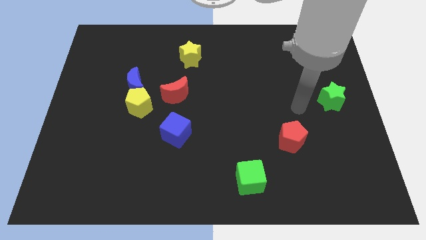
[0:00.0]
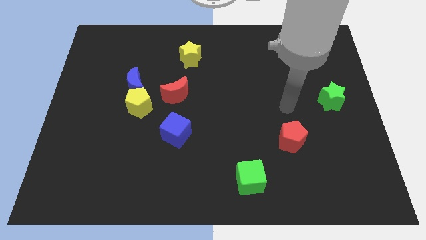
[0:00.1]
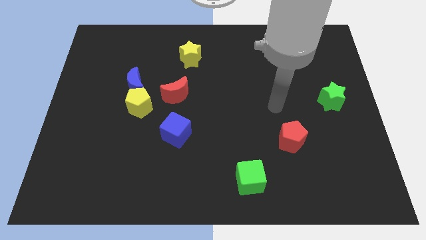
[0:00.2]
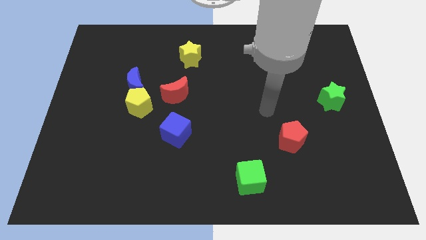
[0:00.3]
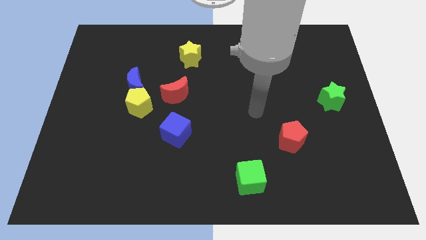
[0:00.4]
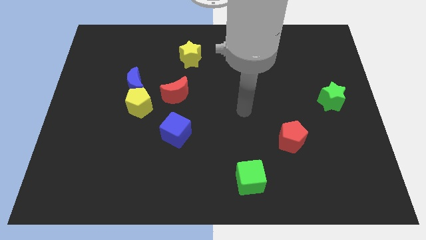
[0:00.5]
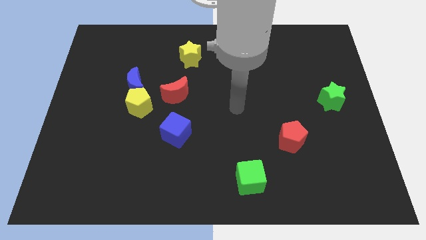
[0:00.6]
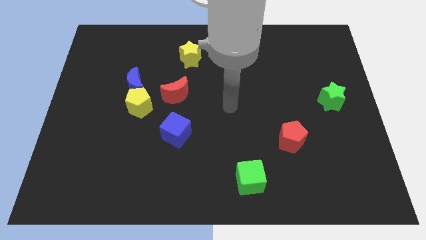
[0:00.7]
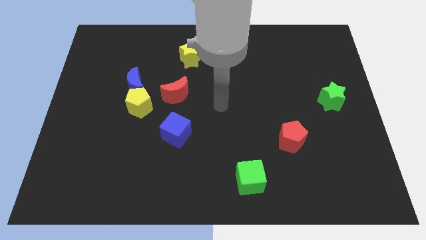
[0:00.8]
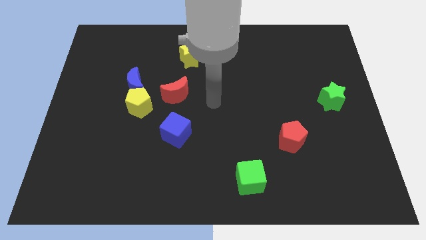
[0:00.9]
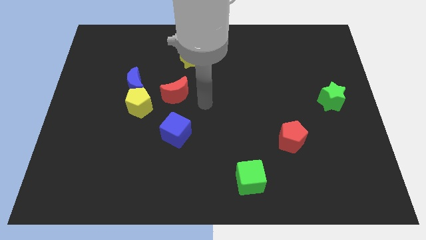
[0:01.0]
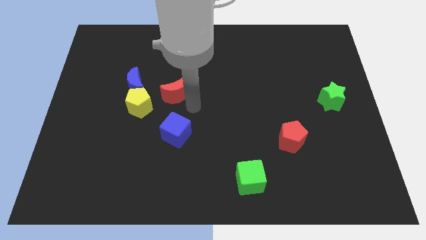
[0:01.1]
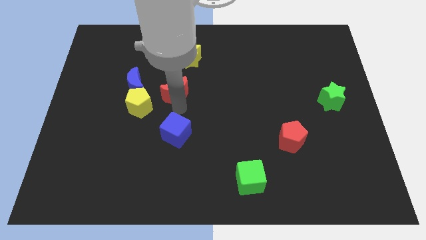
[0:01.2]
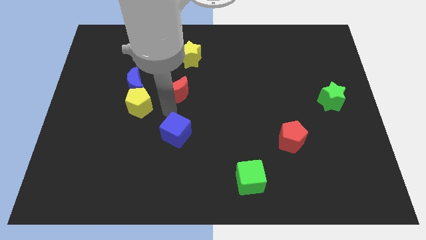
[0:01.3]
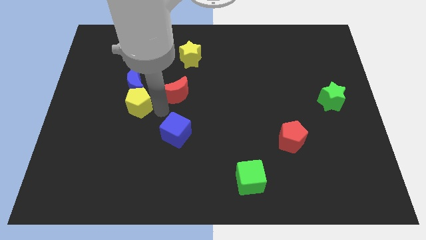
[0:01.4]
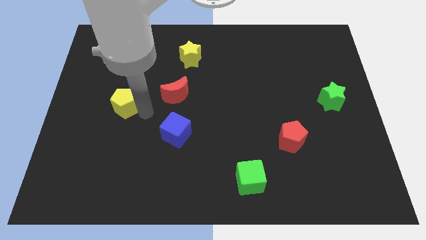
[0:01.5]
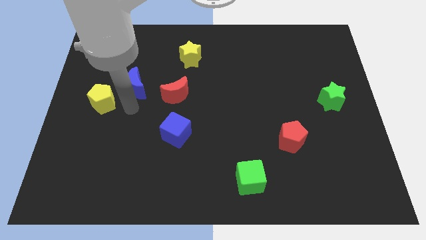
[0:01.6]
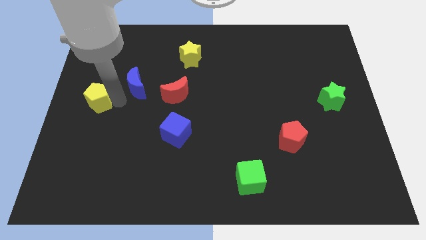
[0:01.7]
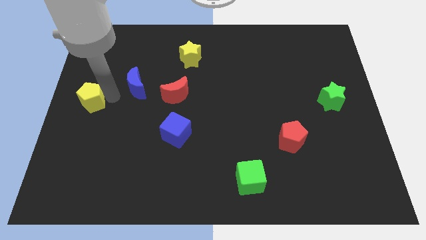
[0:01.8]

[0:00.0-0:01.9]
move the blue moon away from the yellow pentagon

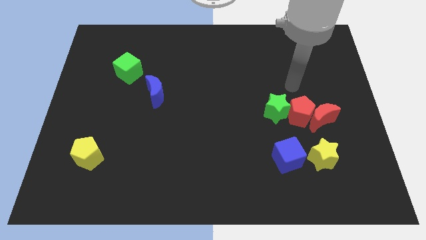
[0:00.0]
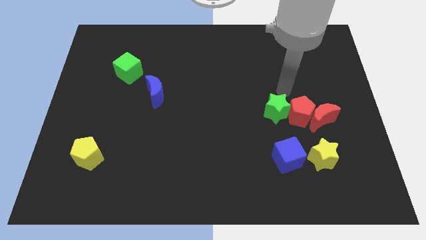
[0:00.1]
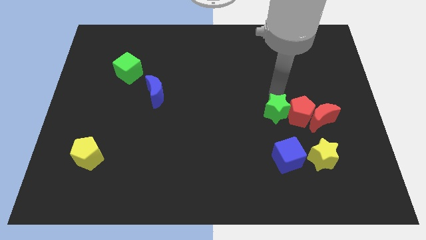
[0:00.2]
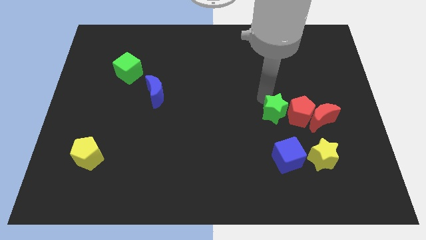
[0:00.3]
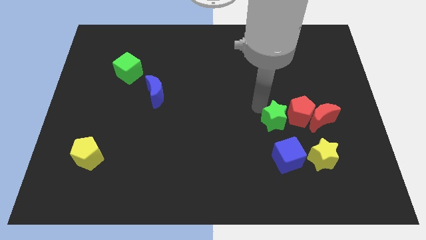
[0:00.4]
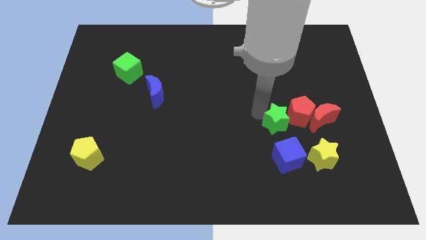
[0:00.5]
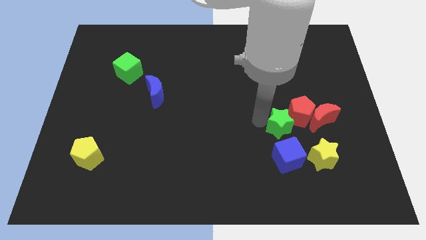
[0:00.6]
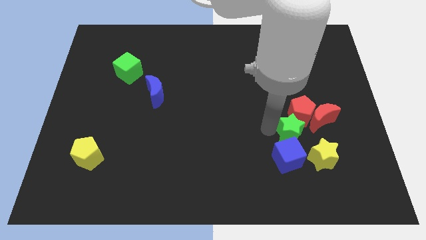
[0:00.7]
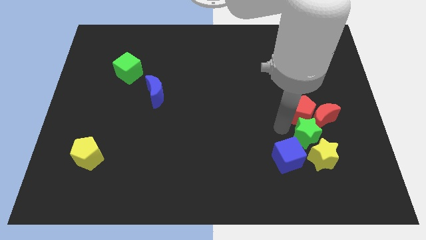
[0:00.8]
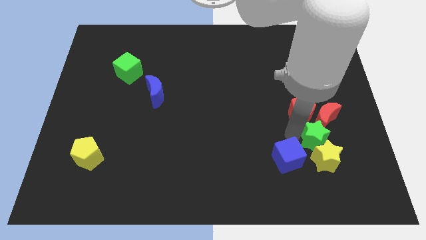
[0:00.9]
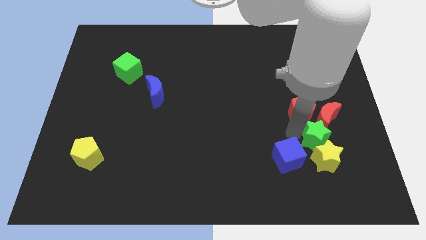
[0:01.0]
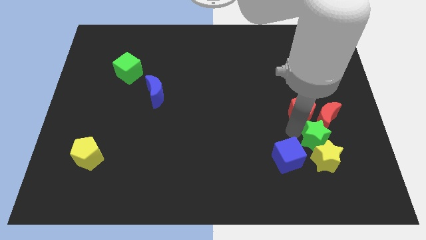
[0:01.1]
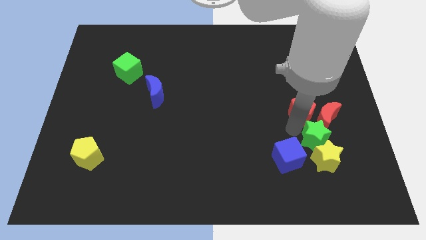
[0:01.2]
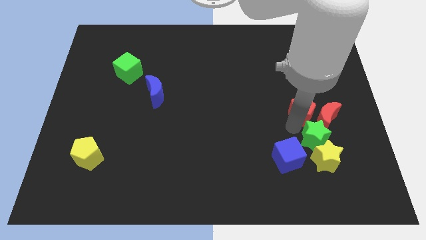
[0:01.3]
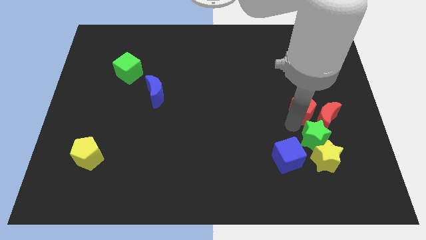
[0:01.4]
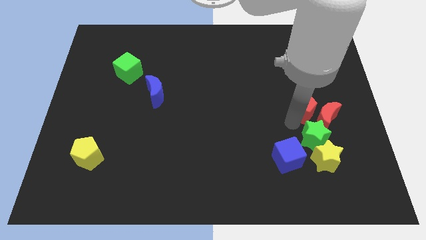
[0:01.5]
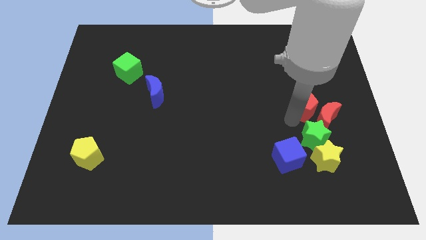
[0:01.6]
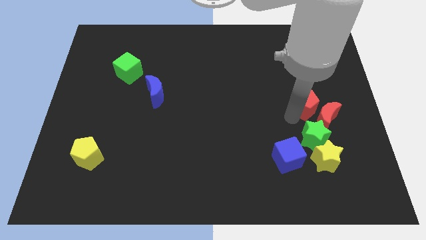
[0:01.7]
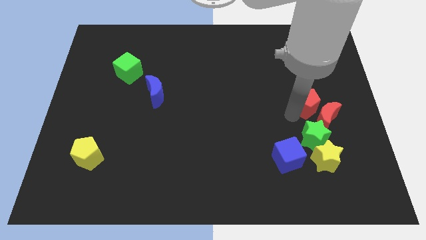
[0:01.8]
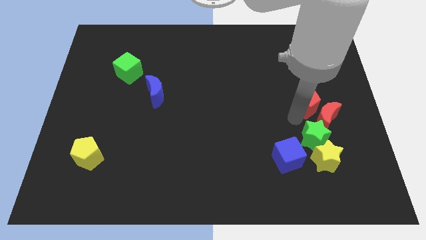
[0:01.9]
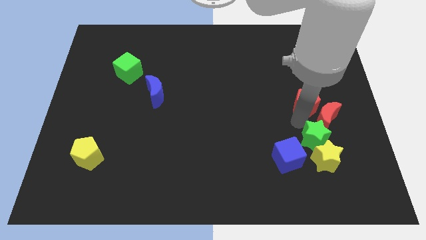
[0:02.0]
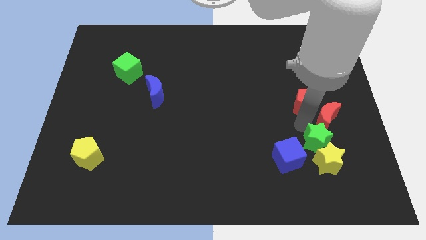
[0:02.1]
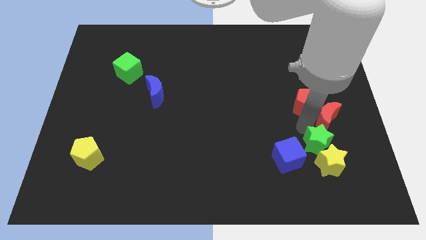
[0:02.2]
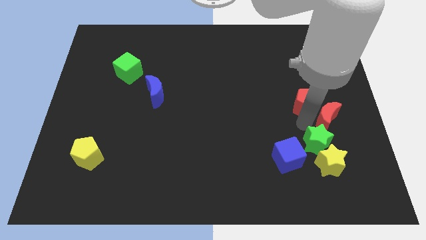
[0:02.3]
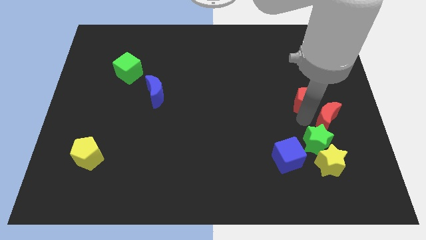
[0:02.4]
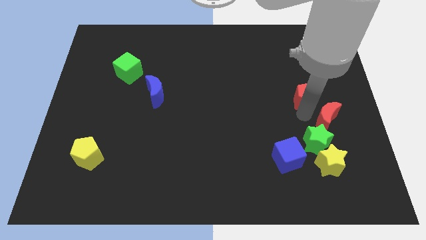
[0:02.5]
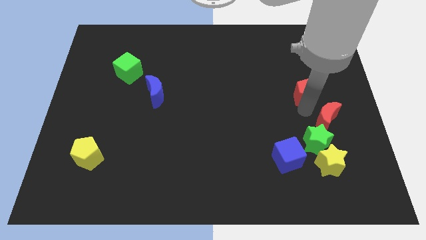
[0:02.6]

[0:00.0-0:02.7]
move the red pentagon away from the red moon and green star

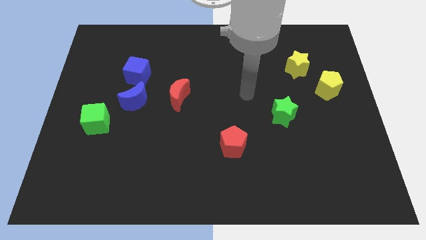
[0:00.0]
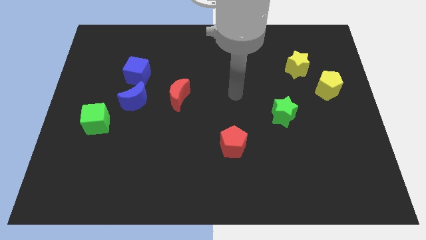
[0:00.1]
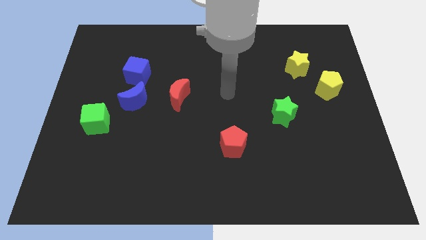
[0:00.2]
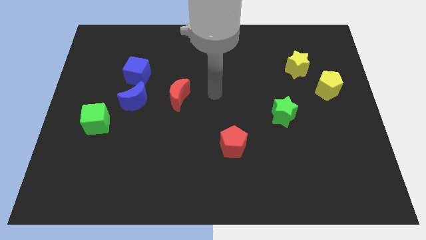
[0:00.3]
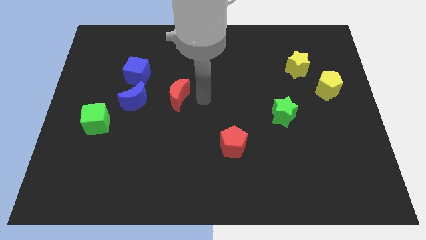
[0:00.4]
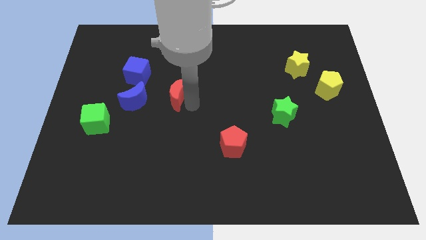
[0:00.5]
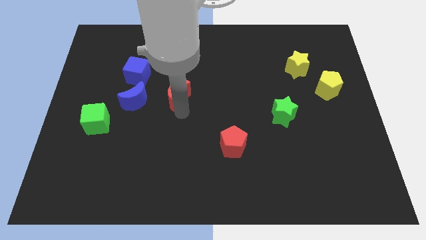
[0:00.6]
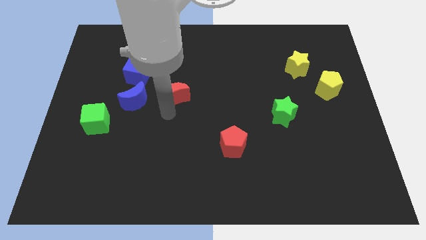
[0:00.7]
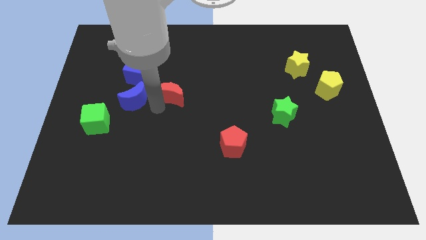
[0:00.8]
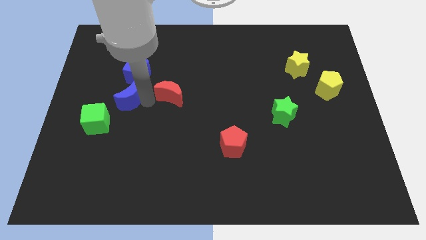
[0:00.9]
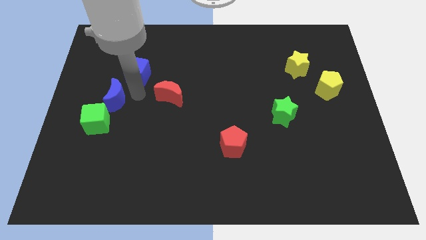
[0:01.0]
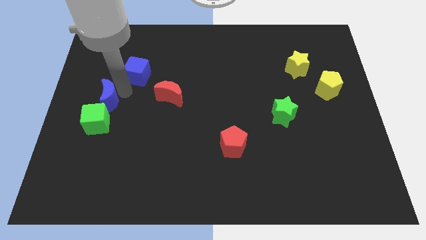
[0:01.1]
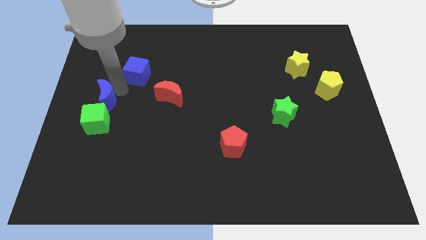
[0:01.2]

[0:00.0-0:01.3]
separate the blue cube from the blue moon

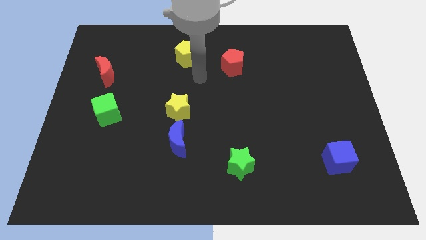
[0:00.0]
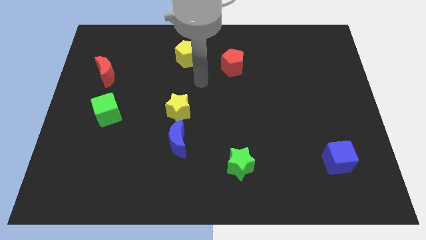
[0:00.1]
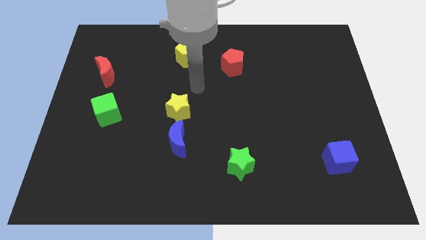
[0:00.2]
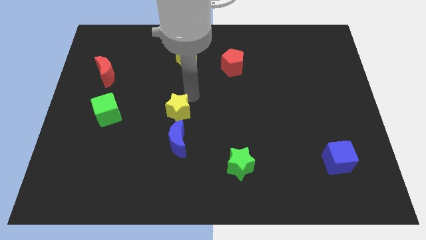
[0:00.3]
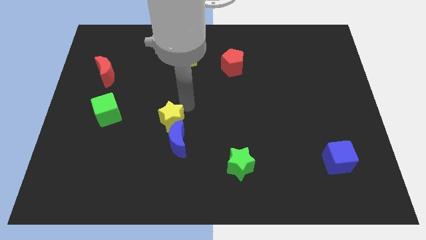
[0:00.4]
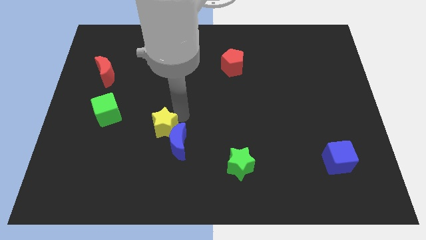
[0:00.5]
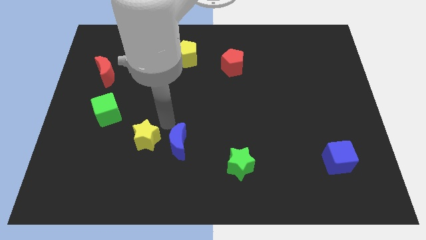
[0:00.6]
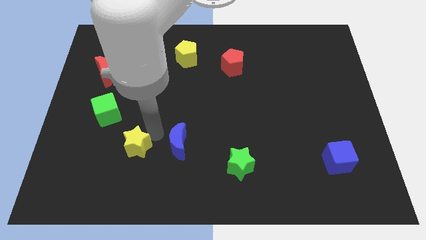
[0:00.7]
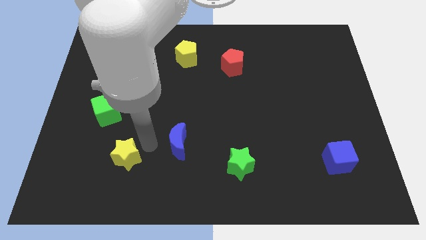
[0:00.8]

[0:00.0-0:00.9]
pull the blue moon apart from the yellow star

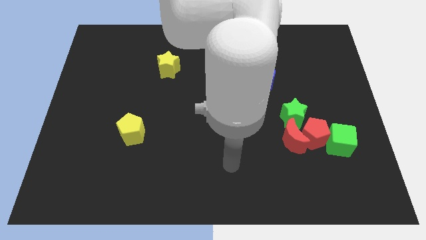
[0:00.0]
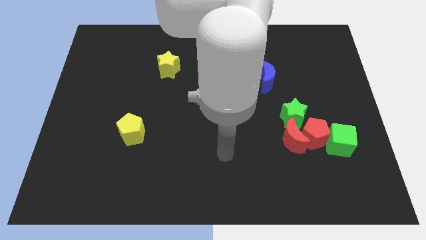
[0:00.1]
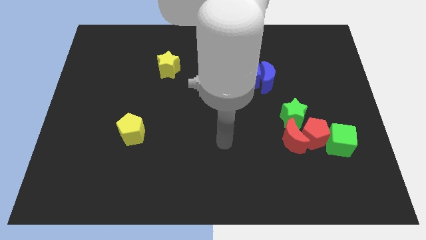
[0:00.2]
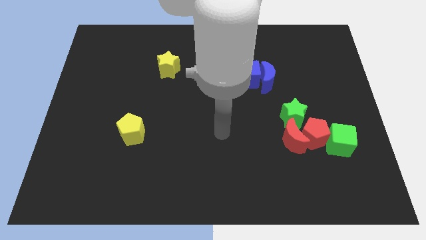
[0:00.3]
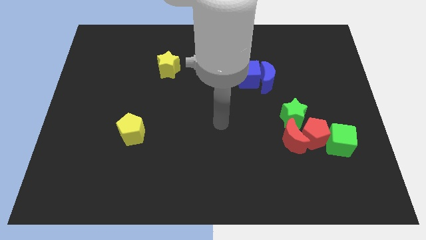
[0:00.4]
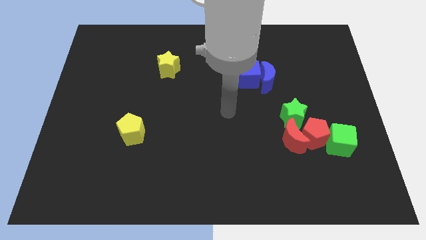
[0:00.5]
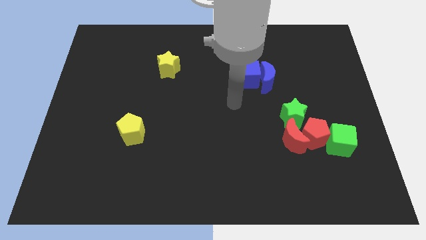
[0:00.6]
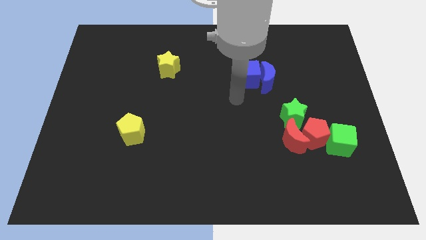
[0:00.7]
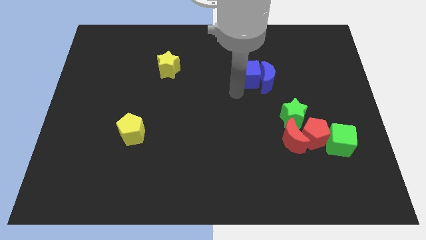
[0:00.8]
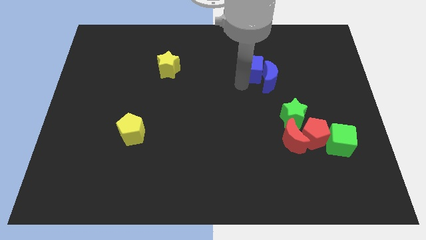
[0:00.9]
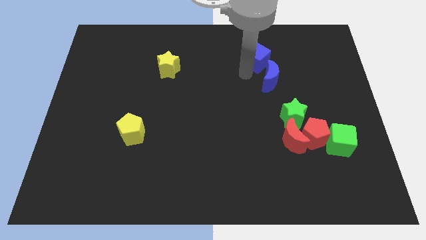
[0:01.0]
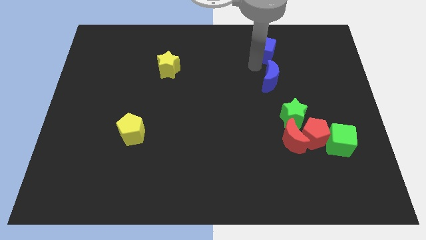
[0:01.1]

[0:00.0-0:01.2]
move the blue moon away from the blue cube

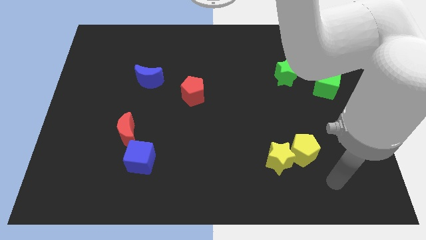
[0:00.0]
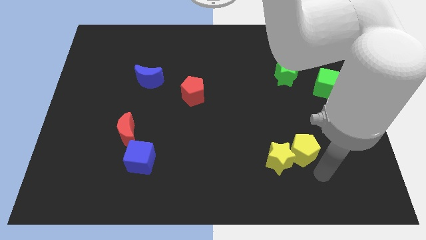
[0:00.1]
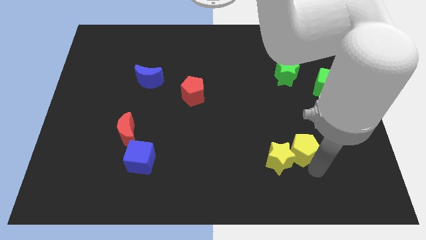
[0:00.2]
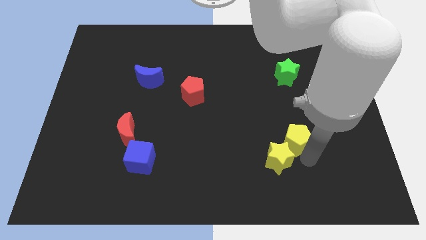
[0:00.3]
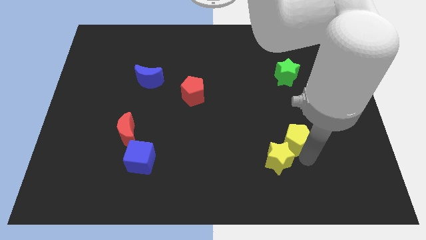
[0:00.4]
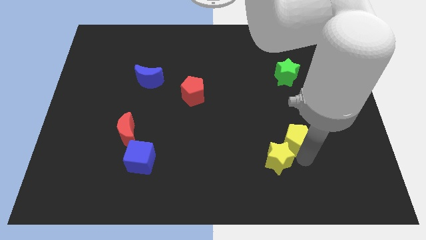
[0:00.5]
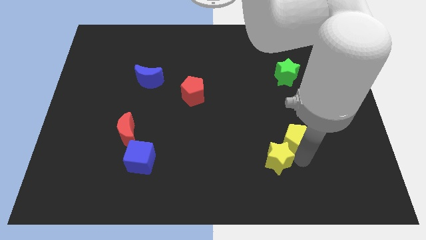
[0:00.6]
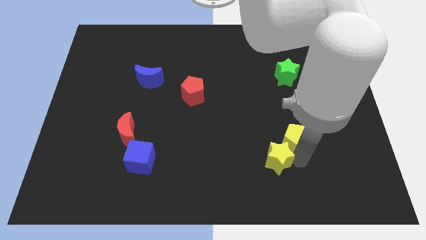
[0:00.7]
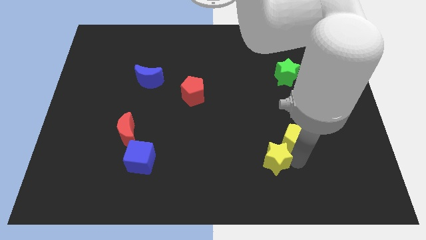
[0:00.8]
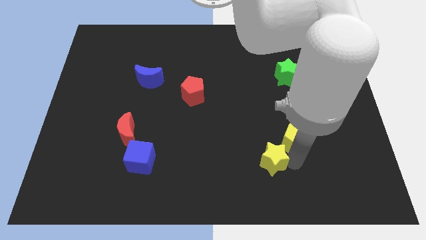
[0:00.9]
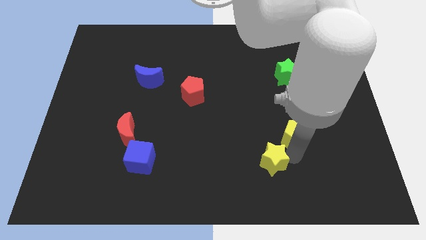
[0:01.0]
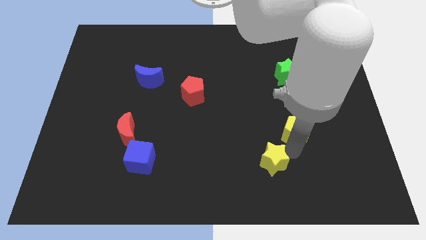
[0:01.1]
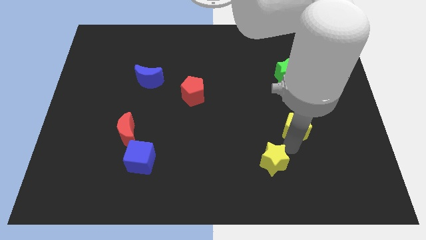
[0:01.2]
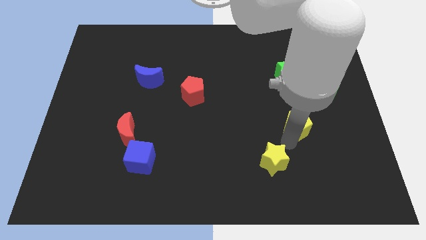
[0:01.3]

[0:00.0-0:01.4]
separate the yellow star from the yellow pentagon
